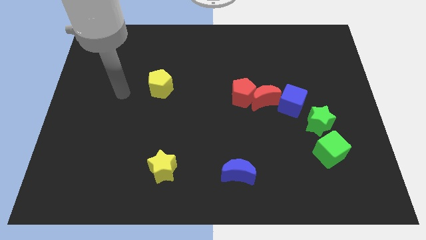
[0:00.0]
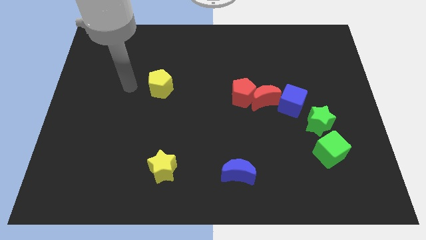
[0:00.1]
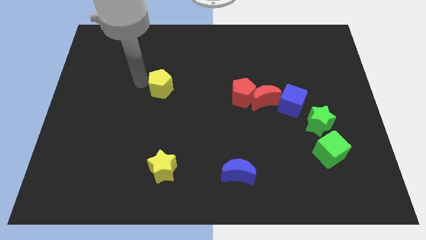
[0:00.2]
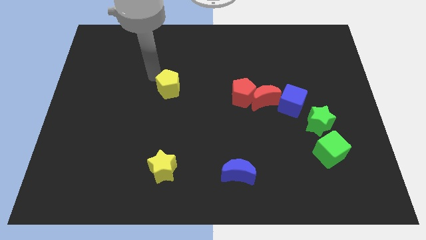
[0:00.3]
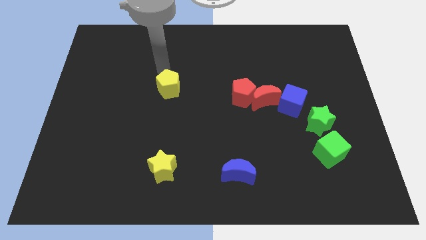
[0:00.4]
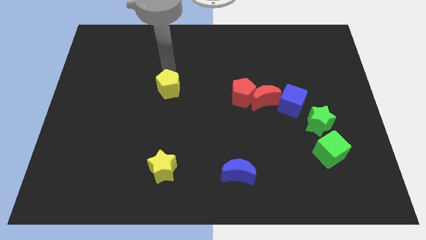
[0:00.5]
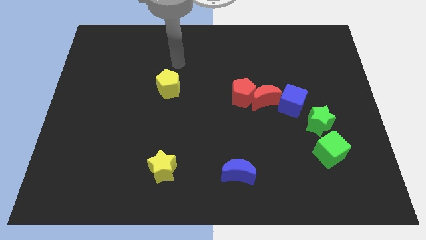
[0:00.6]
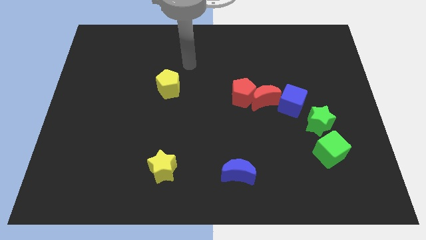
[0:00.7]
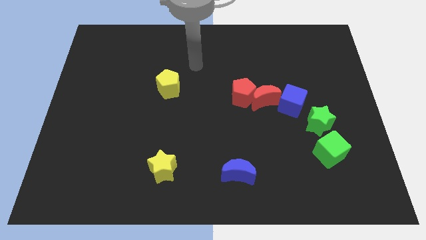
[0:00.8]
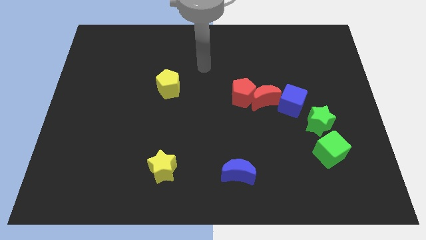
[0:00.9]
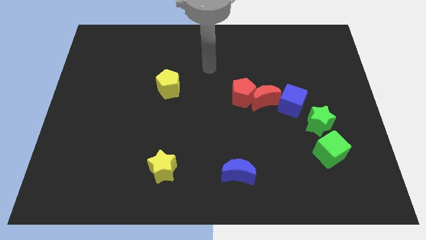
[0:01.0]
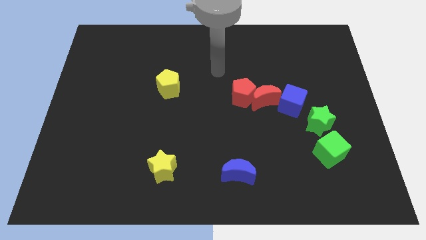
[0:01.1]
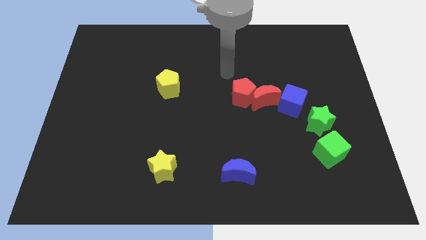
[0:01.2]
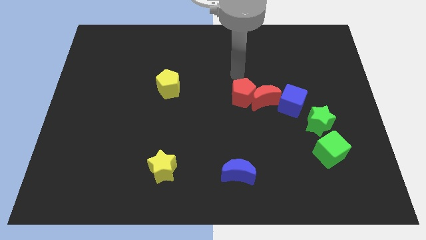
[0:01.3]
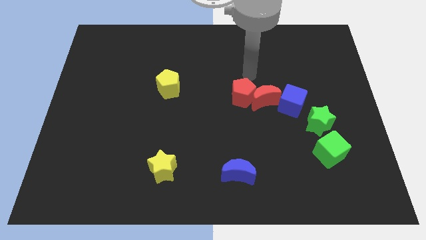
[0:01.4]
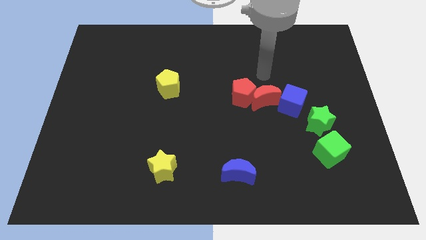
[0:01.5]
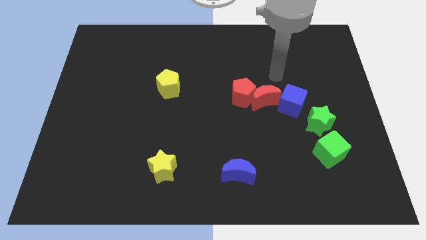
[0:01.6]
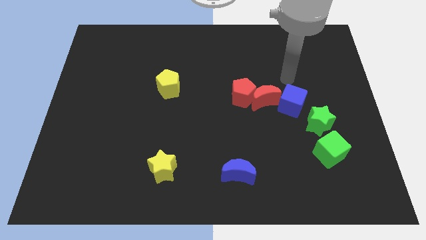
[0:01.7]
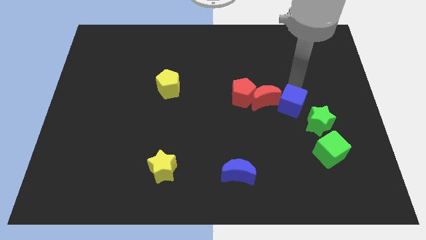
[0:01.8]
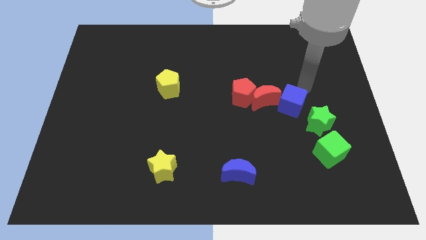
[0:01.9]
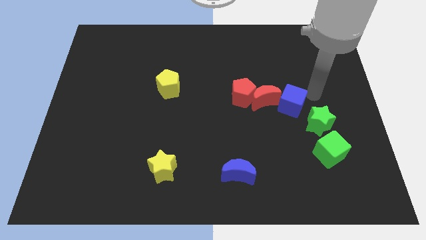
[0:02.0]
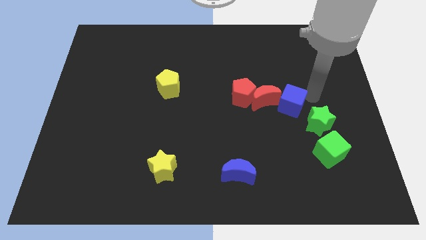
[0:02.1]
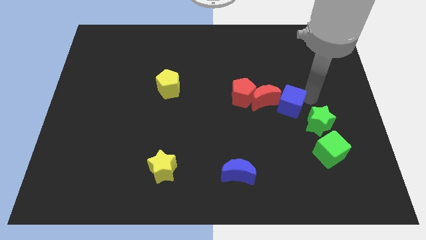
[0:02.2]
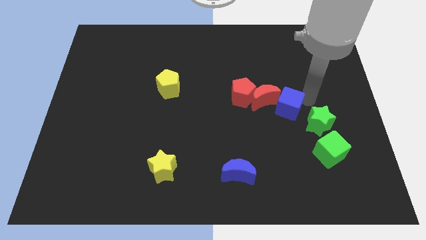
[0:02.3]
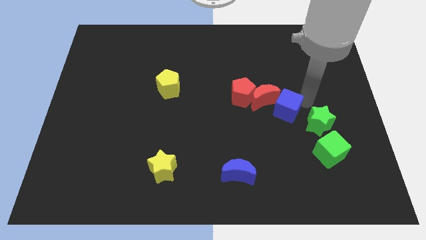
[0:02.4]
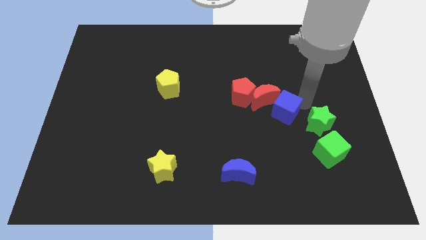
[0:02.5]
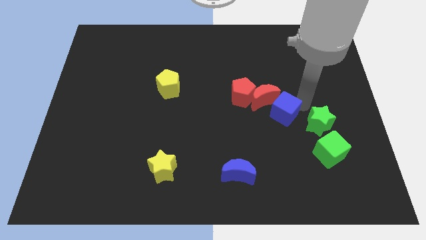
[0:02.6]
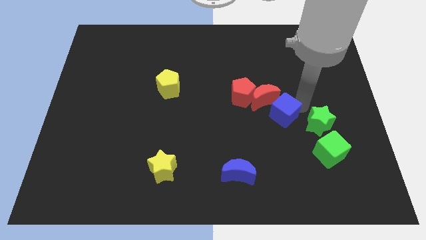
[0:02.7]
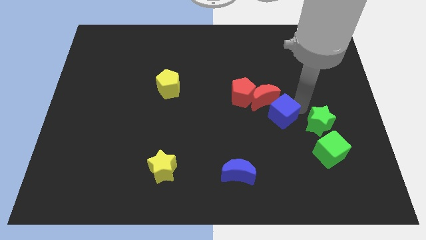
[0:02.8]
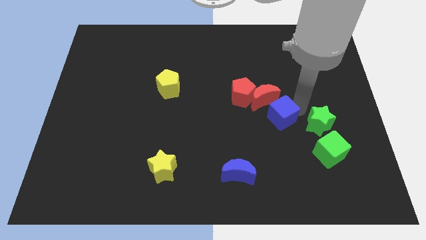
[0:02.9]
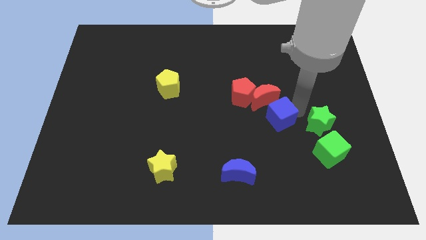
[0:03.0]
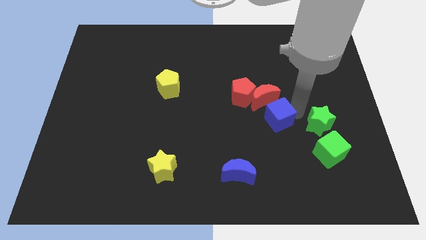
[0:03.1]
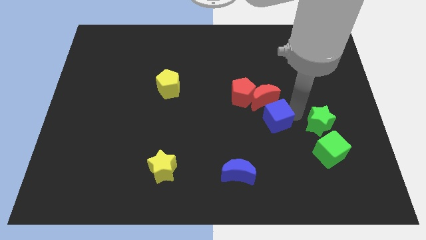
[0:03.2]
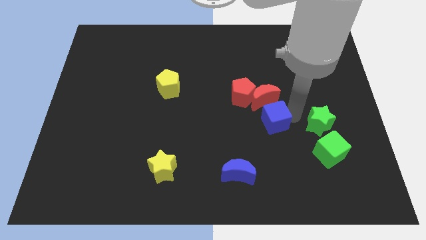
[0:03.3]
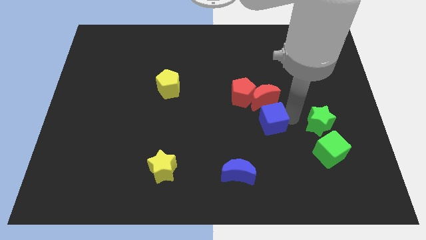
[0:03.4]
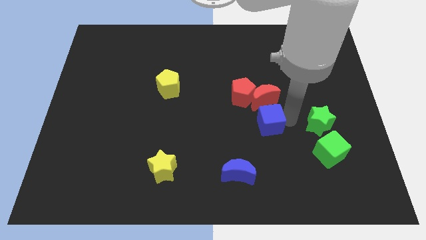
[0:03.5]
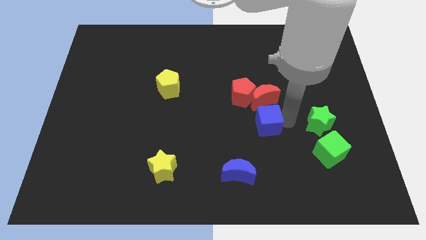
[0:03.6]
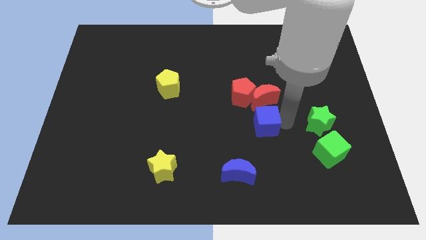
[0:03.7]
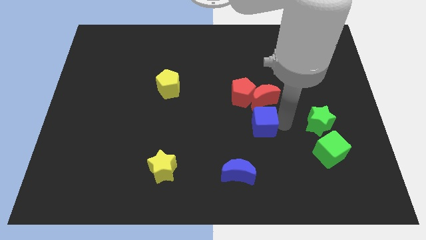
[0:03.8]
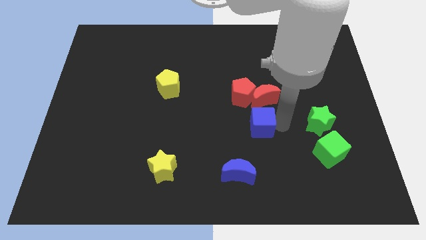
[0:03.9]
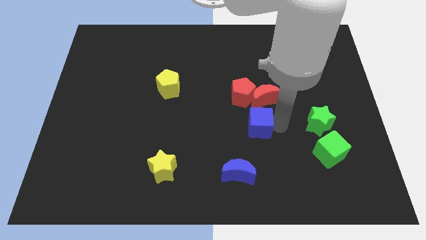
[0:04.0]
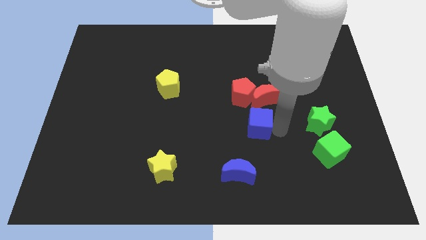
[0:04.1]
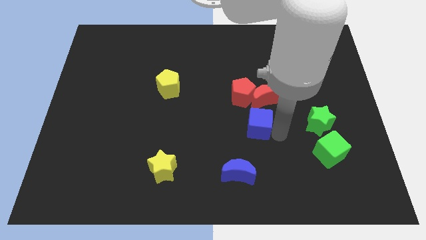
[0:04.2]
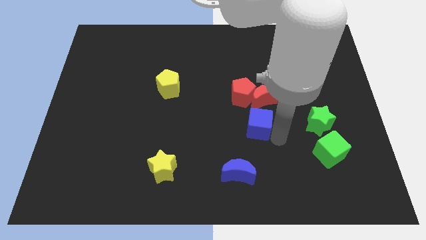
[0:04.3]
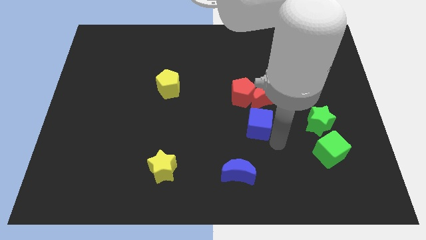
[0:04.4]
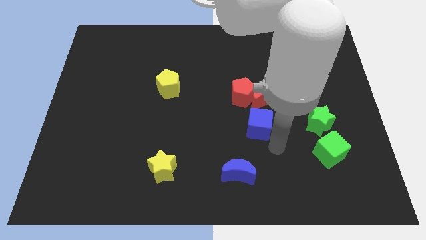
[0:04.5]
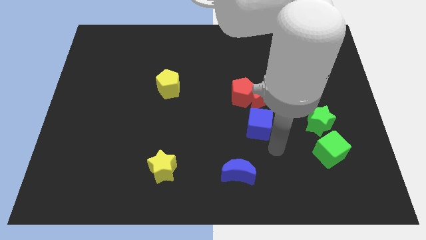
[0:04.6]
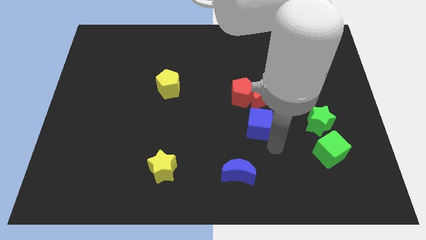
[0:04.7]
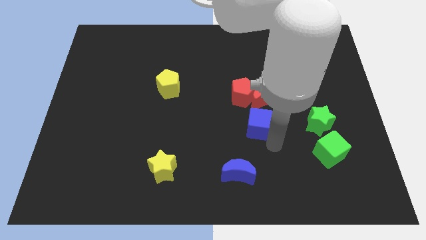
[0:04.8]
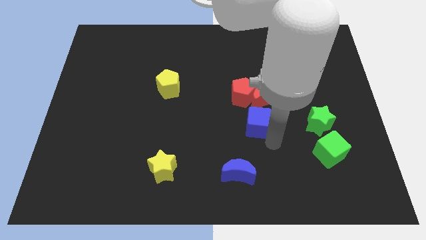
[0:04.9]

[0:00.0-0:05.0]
push the blue cube to the left a little

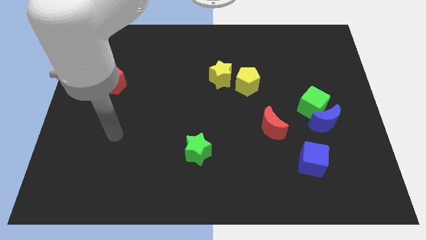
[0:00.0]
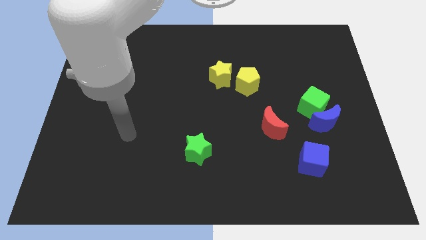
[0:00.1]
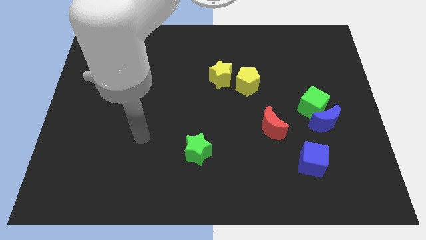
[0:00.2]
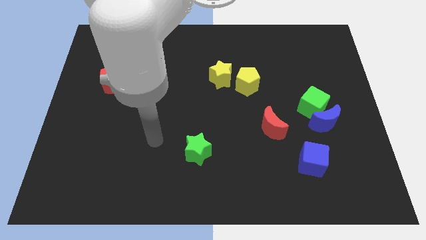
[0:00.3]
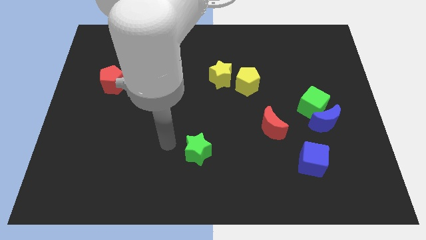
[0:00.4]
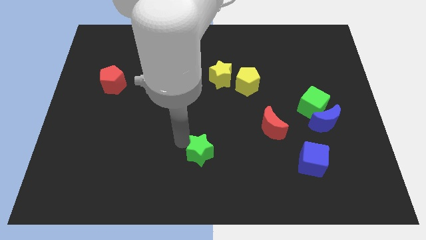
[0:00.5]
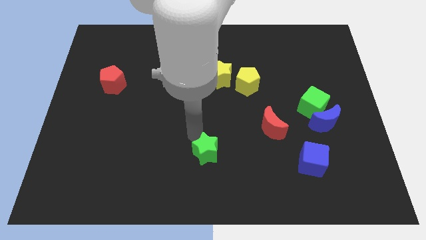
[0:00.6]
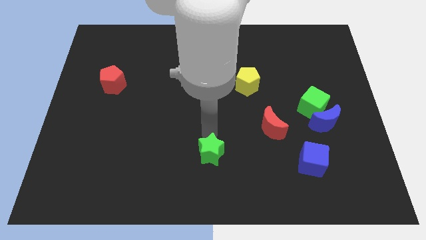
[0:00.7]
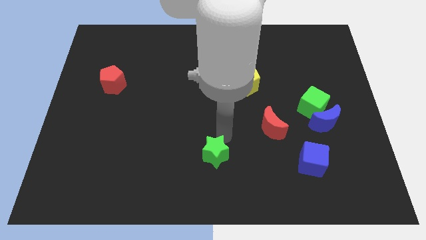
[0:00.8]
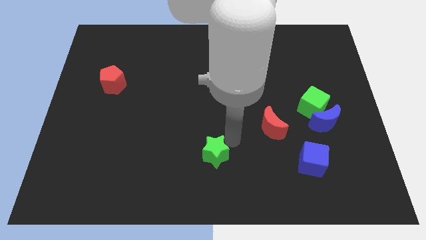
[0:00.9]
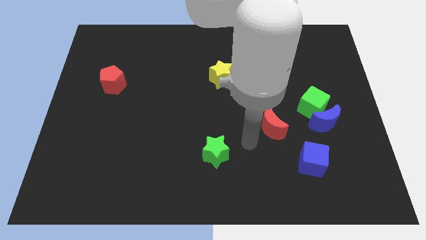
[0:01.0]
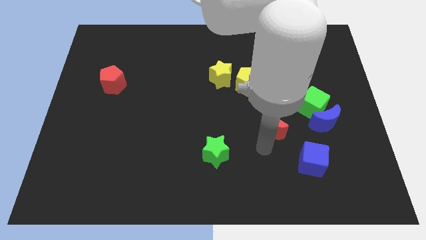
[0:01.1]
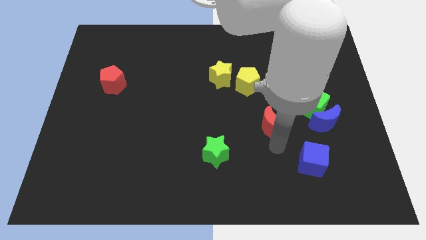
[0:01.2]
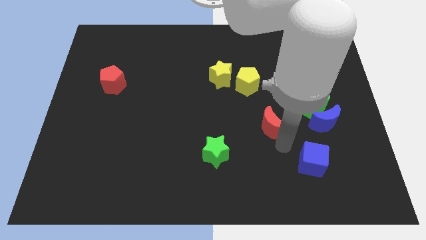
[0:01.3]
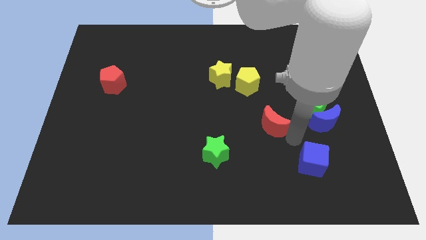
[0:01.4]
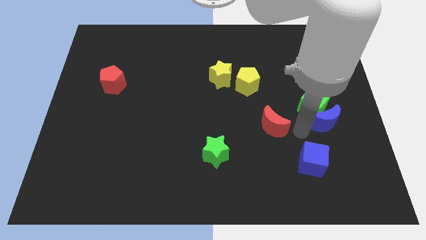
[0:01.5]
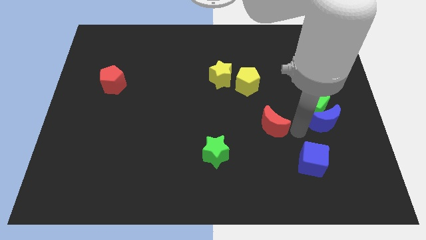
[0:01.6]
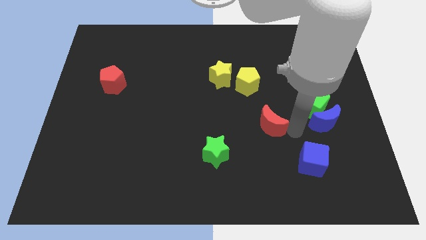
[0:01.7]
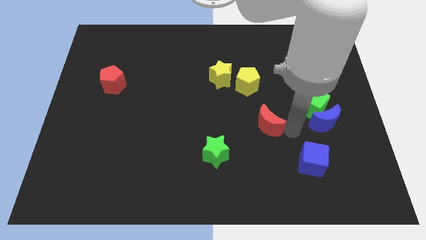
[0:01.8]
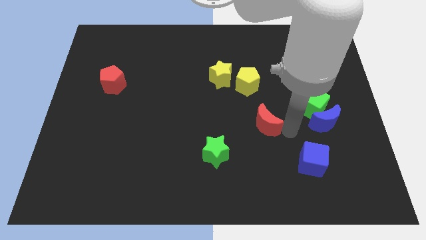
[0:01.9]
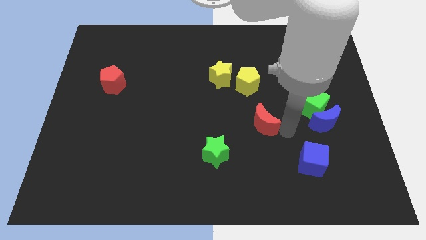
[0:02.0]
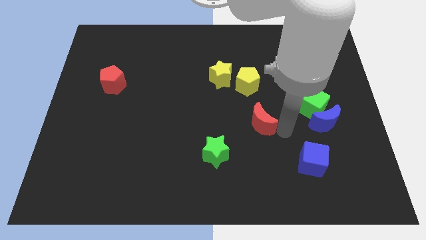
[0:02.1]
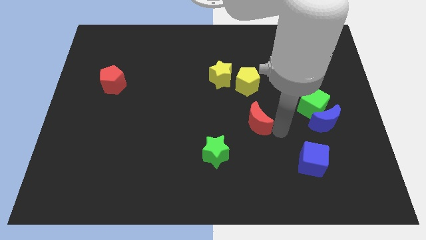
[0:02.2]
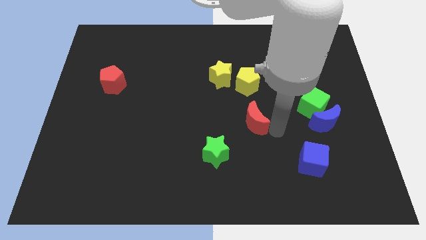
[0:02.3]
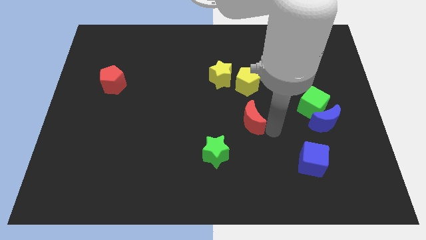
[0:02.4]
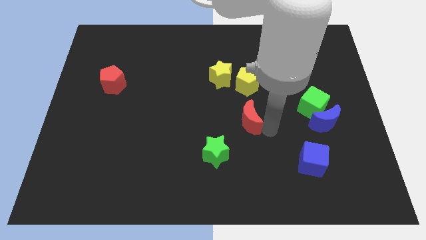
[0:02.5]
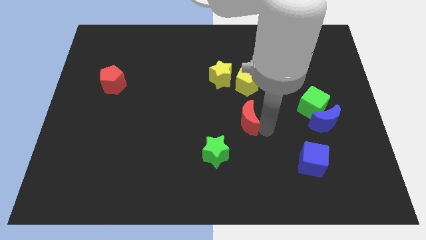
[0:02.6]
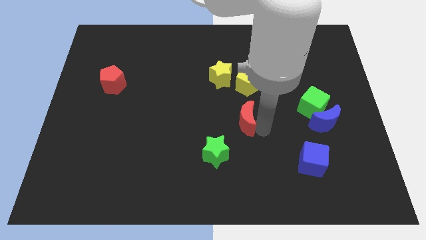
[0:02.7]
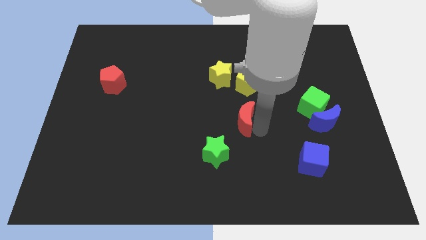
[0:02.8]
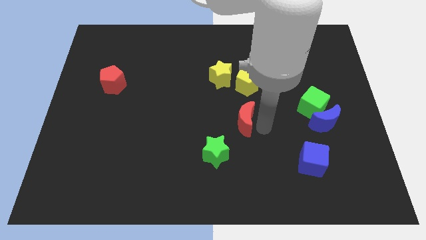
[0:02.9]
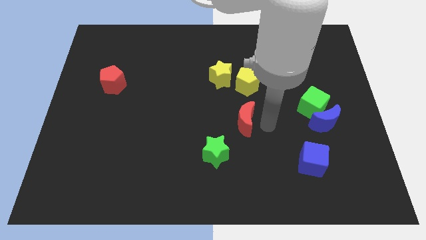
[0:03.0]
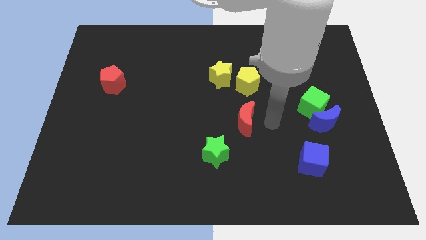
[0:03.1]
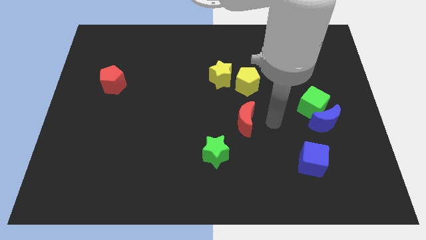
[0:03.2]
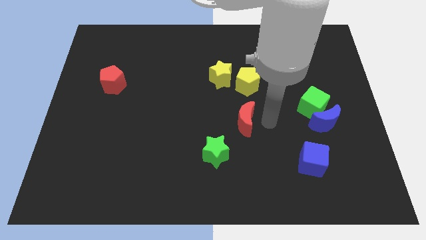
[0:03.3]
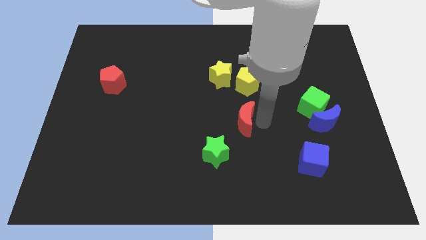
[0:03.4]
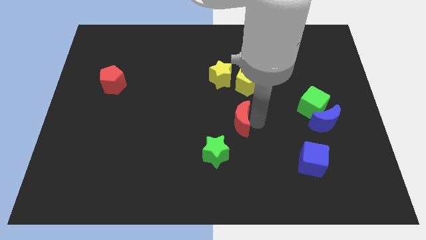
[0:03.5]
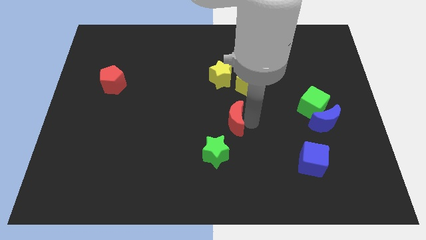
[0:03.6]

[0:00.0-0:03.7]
slide the red moon to the left somewhat
